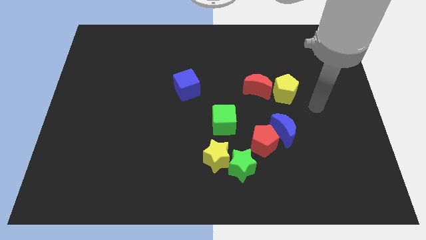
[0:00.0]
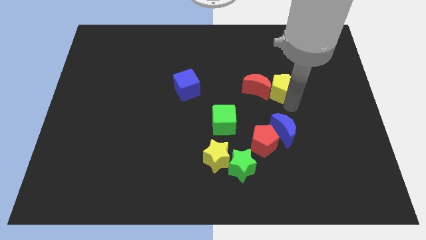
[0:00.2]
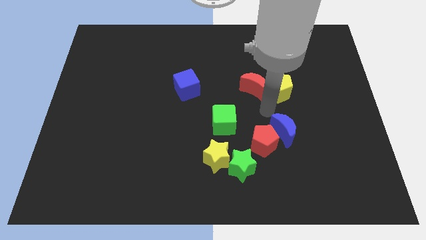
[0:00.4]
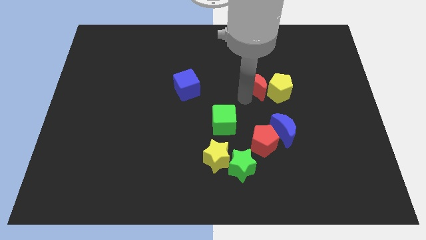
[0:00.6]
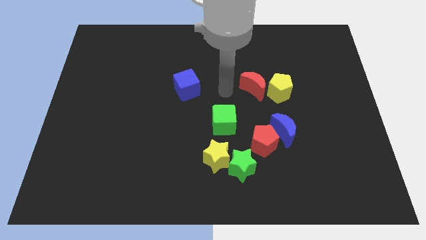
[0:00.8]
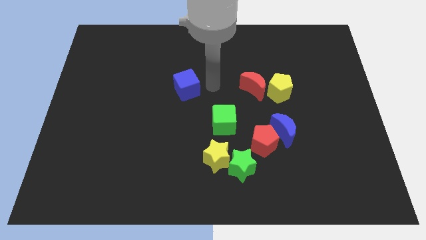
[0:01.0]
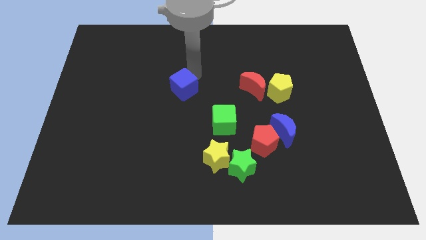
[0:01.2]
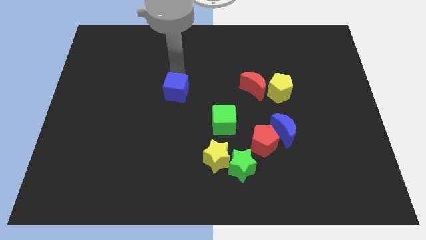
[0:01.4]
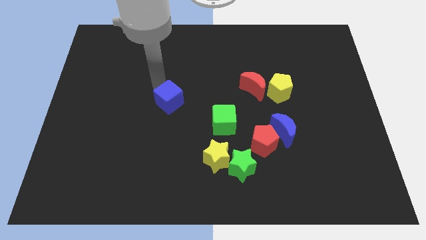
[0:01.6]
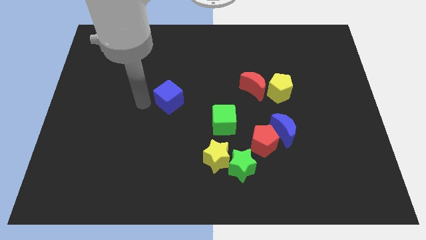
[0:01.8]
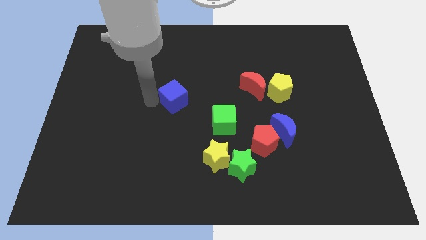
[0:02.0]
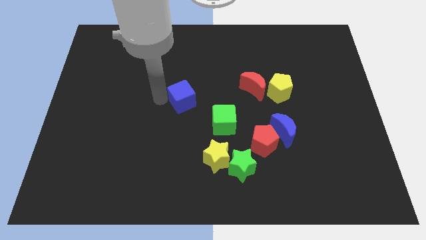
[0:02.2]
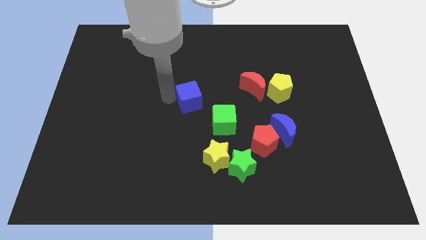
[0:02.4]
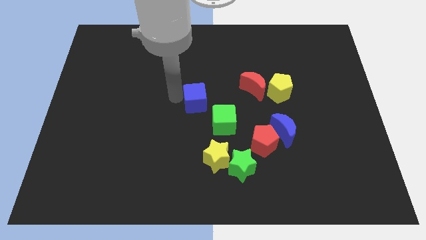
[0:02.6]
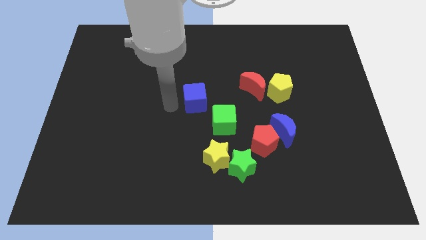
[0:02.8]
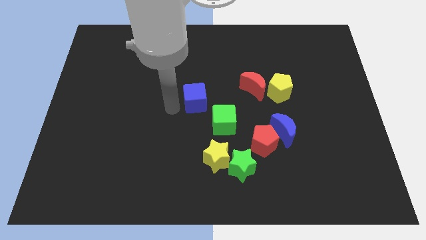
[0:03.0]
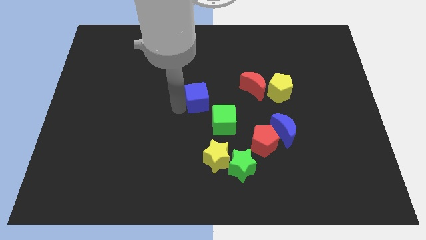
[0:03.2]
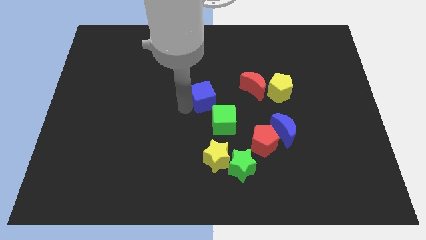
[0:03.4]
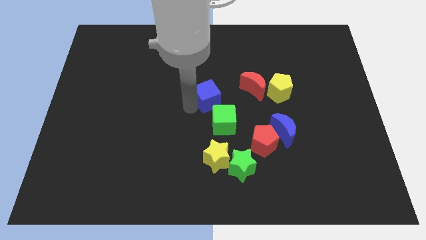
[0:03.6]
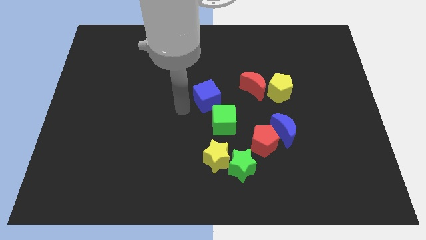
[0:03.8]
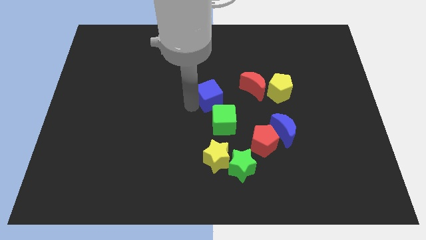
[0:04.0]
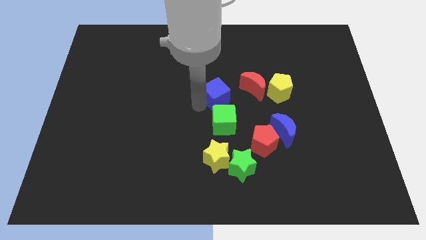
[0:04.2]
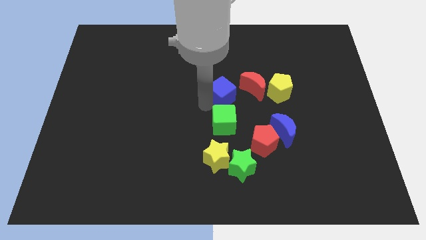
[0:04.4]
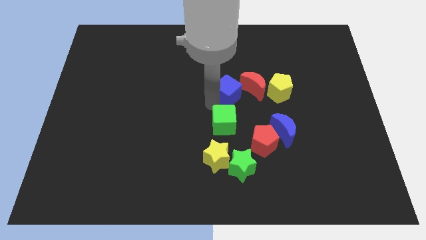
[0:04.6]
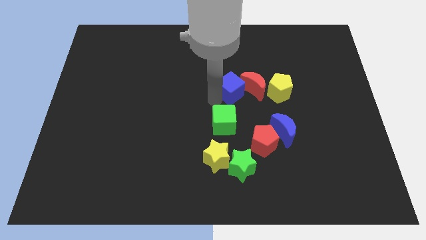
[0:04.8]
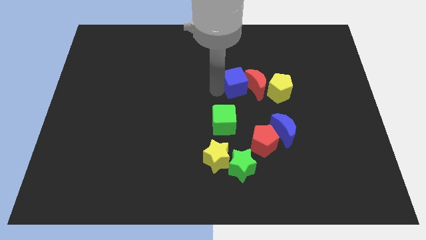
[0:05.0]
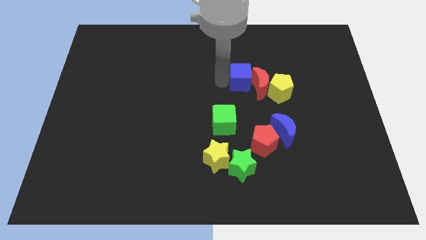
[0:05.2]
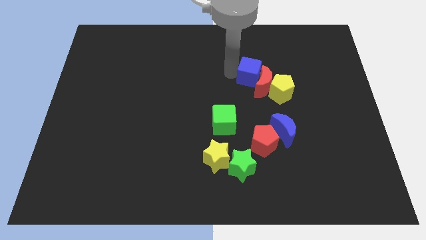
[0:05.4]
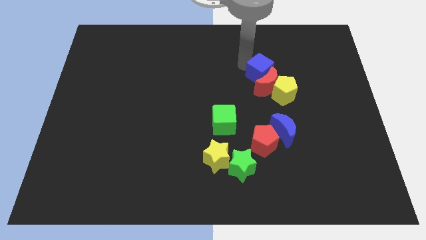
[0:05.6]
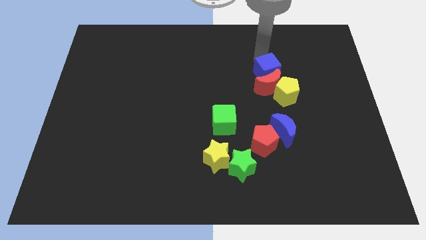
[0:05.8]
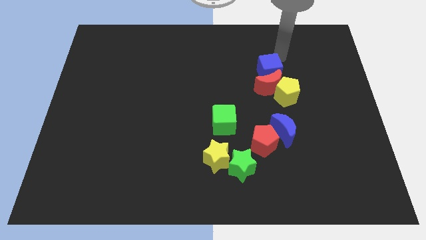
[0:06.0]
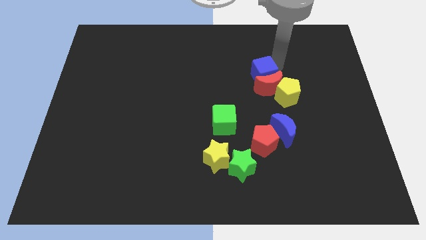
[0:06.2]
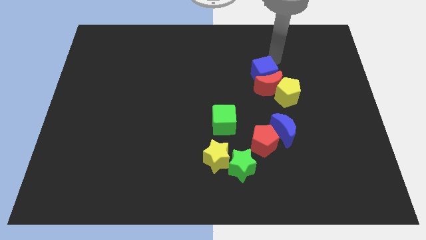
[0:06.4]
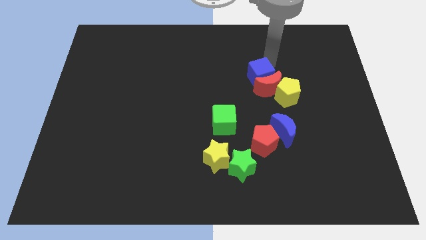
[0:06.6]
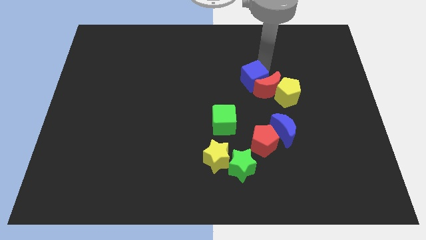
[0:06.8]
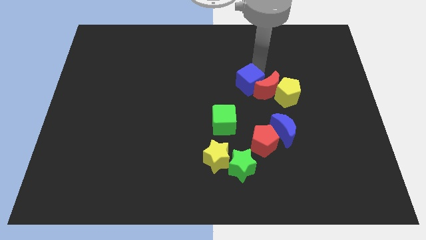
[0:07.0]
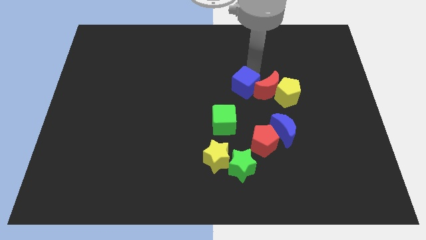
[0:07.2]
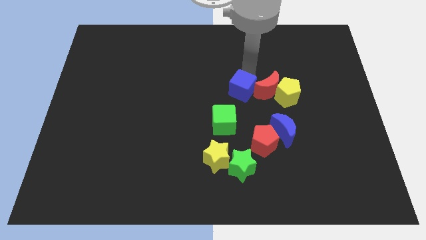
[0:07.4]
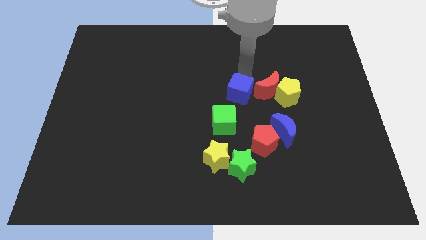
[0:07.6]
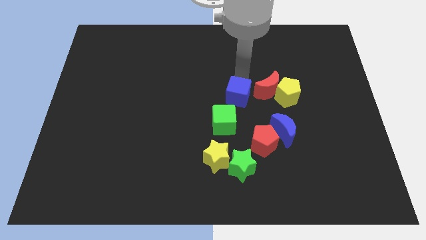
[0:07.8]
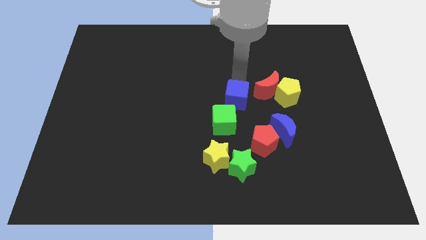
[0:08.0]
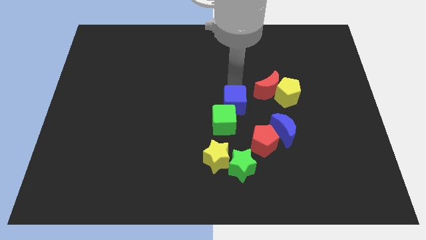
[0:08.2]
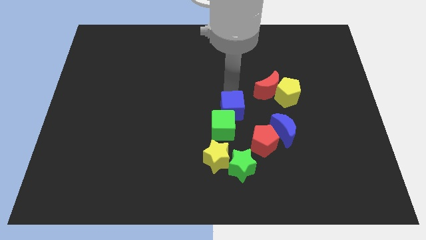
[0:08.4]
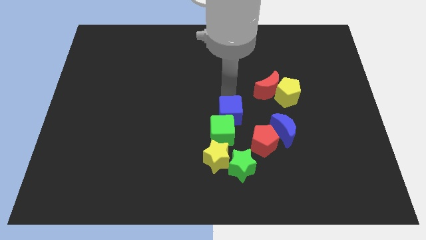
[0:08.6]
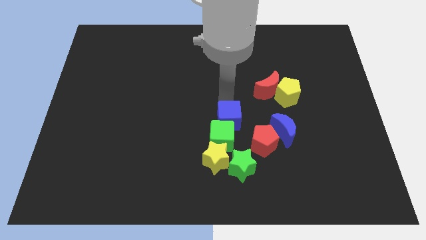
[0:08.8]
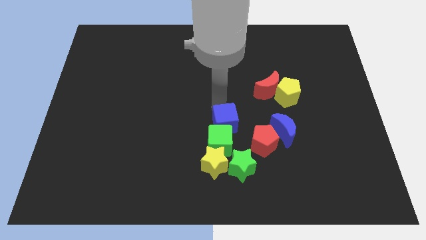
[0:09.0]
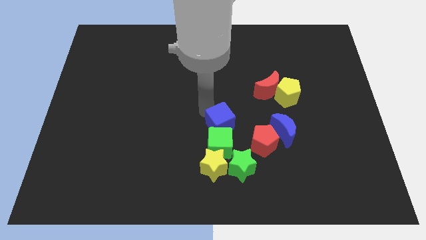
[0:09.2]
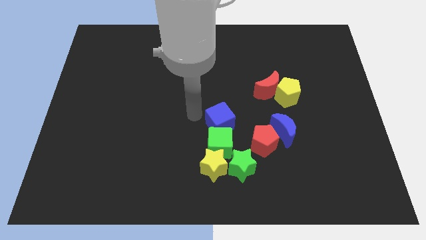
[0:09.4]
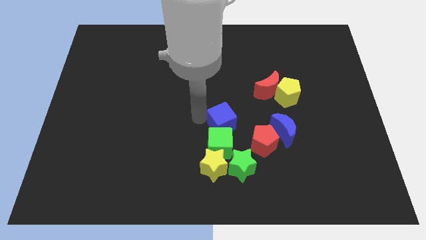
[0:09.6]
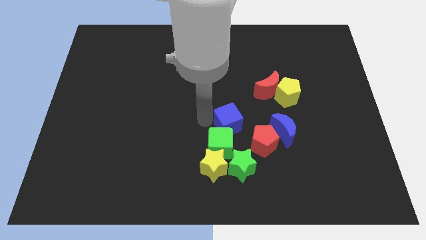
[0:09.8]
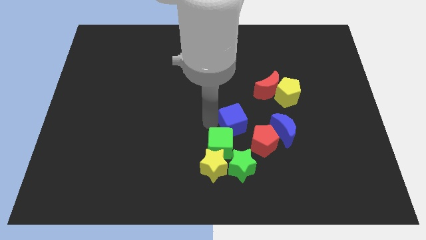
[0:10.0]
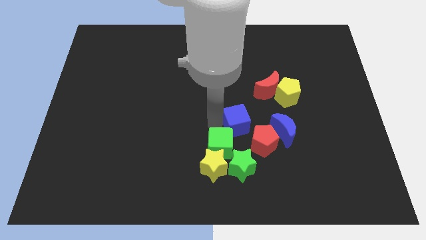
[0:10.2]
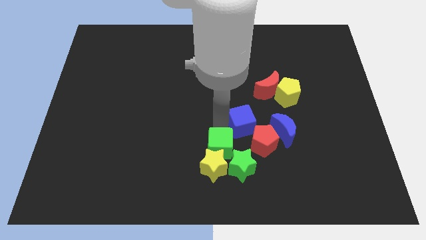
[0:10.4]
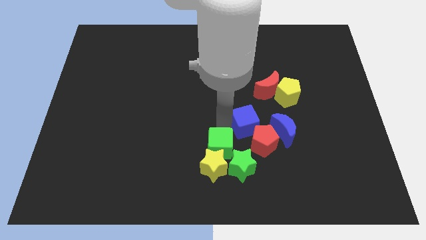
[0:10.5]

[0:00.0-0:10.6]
put the blue cube to the red pentagon

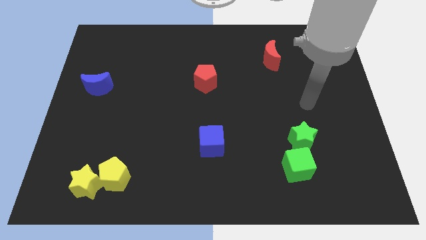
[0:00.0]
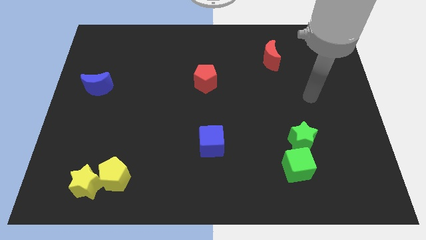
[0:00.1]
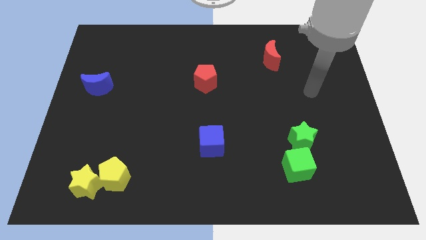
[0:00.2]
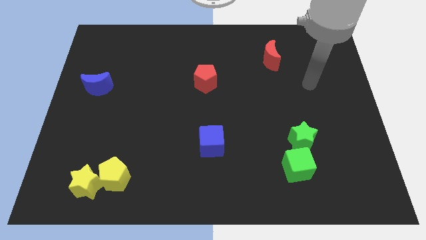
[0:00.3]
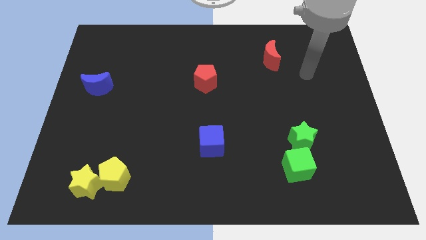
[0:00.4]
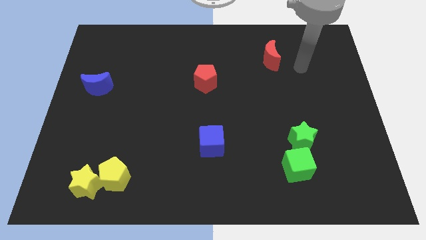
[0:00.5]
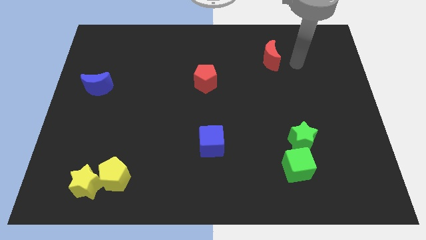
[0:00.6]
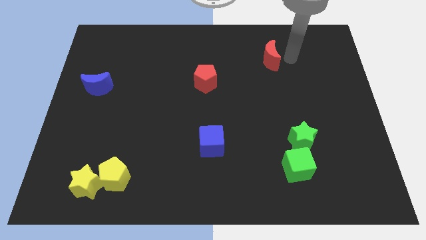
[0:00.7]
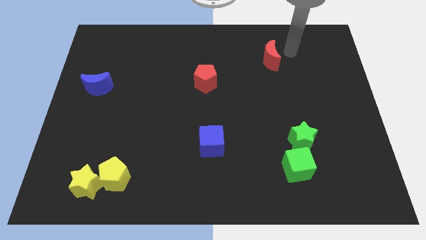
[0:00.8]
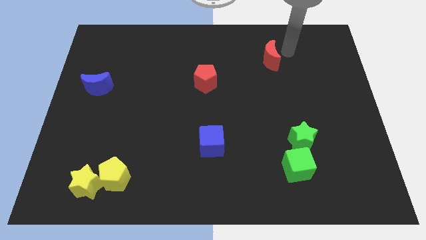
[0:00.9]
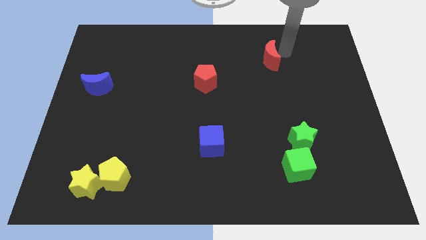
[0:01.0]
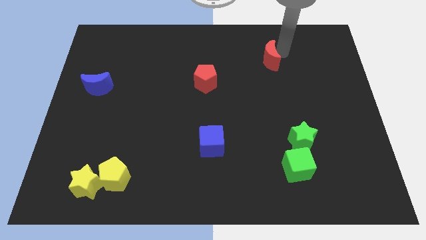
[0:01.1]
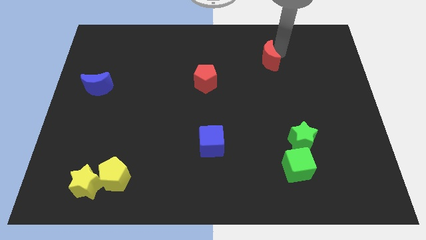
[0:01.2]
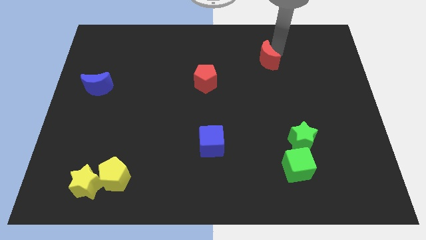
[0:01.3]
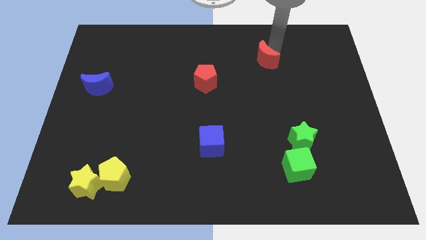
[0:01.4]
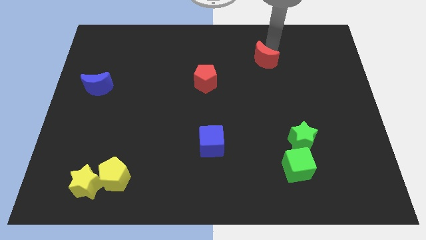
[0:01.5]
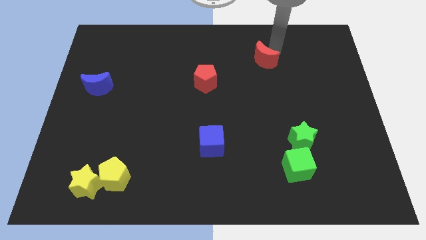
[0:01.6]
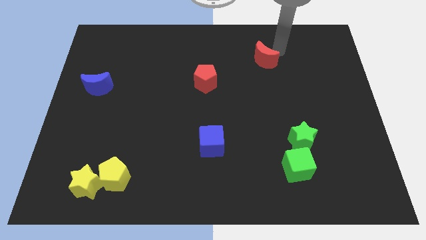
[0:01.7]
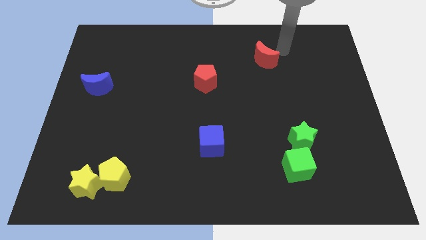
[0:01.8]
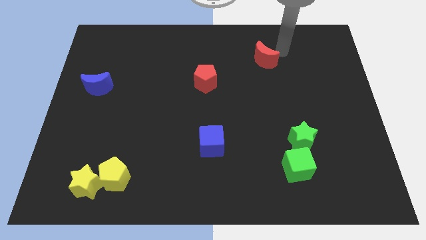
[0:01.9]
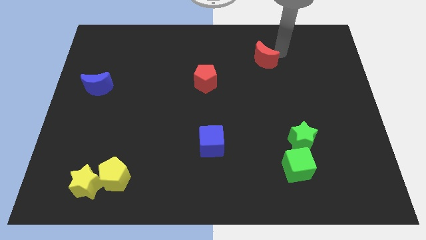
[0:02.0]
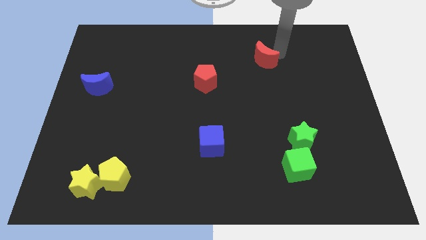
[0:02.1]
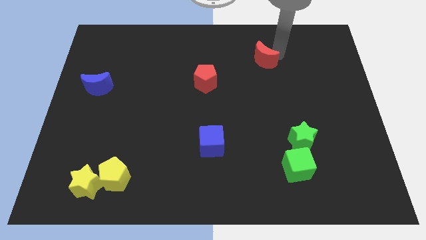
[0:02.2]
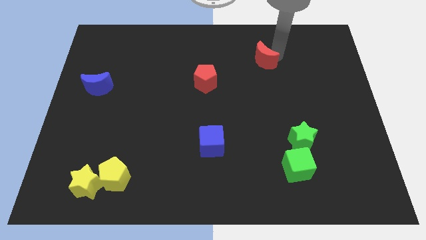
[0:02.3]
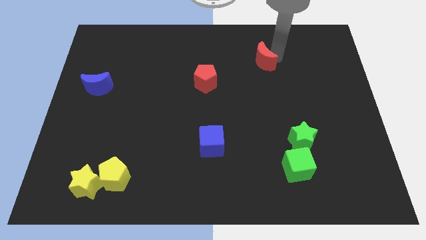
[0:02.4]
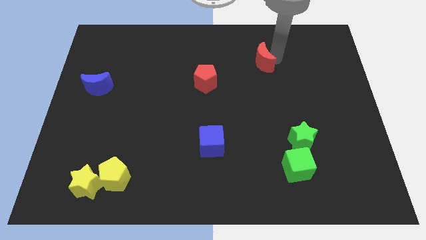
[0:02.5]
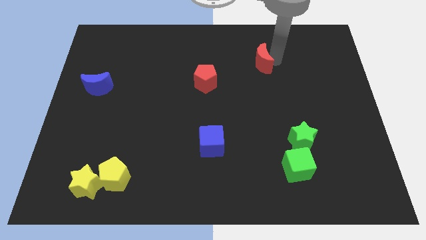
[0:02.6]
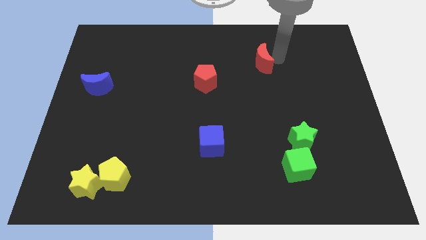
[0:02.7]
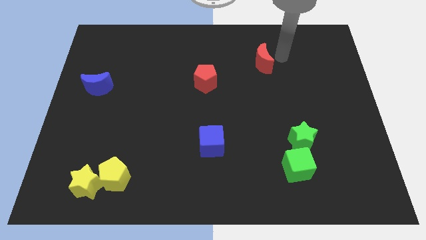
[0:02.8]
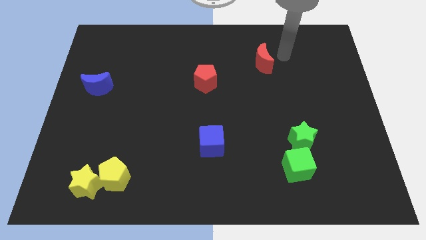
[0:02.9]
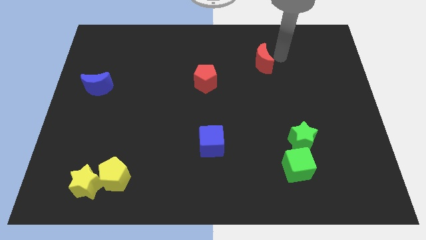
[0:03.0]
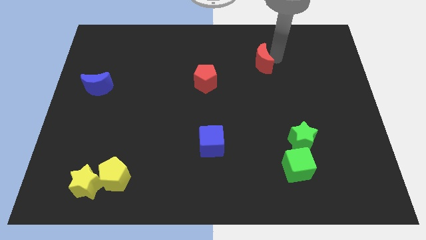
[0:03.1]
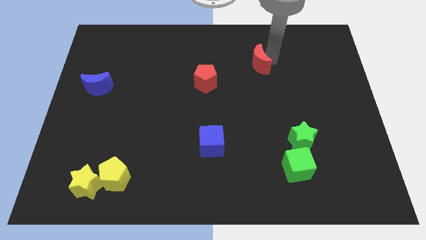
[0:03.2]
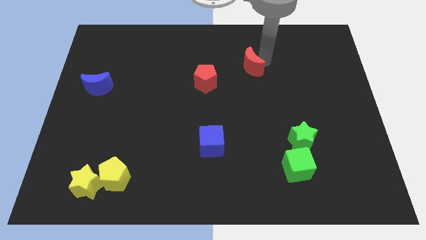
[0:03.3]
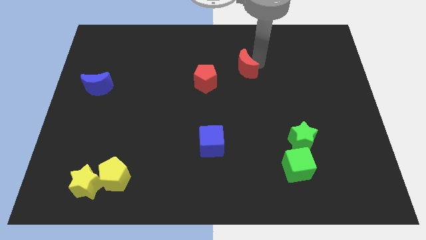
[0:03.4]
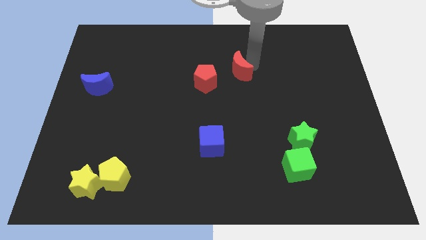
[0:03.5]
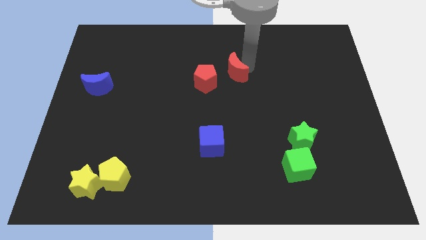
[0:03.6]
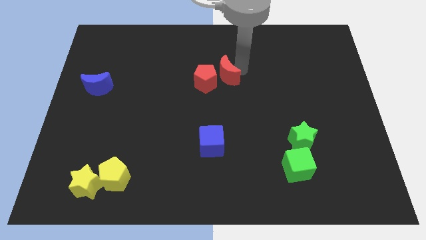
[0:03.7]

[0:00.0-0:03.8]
push the red moon close to the red pentagon
